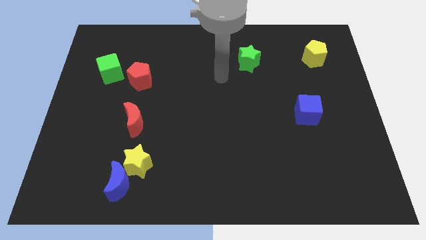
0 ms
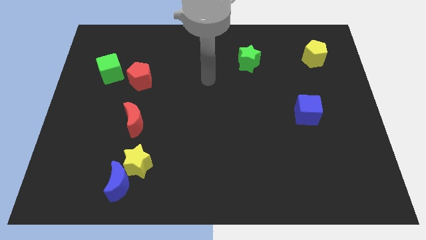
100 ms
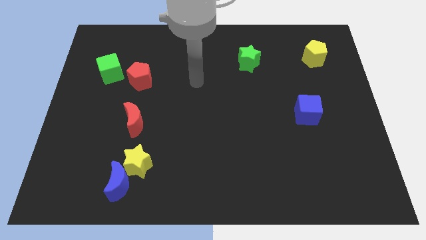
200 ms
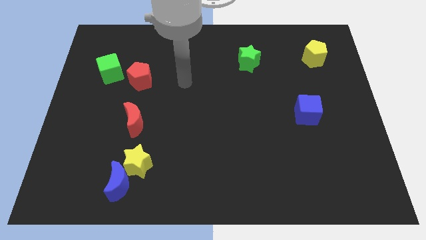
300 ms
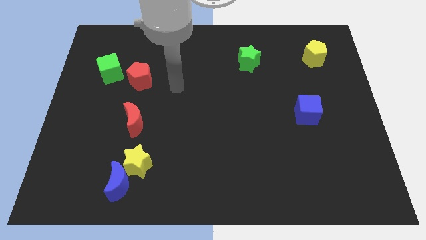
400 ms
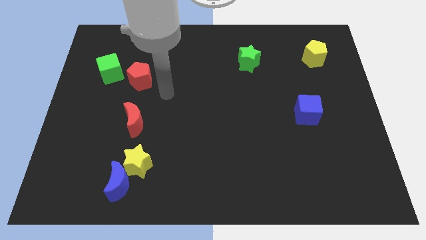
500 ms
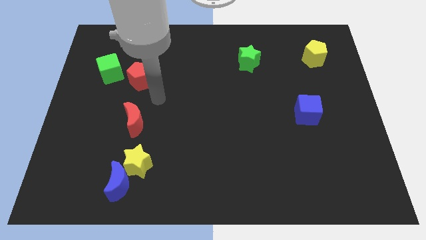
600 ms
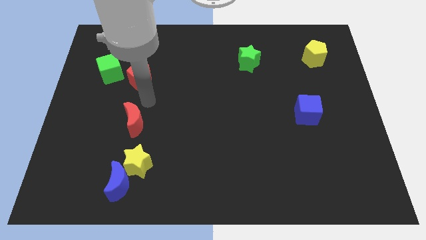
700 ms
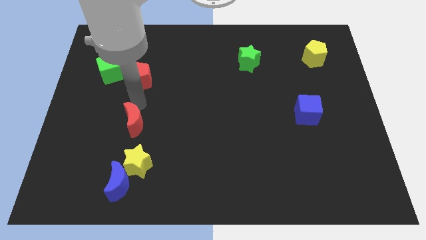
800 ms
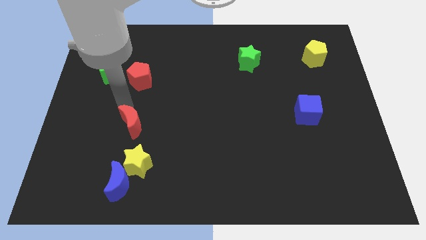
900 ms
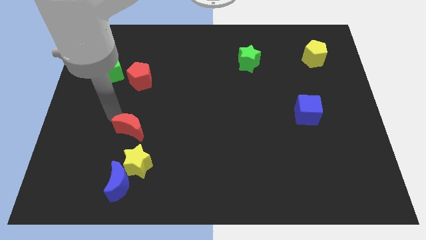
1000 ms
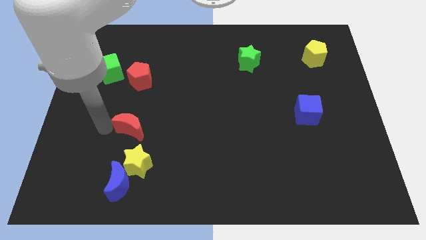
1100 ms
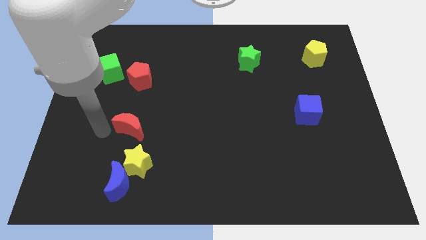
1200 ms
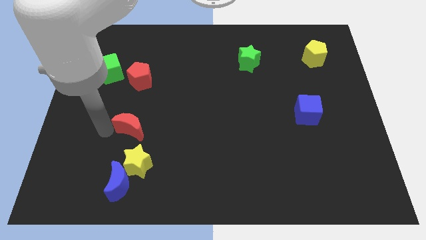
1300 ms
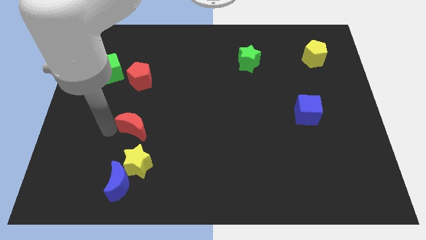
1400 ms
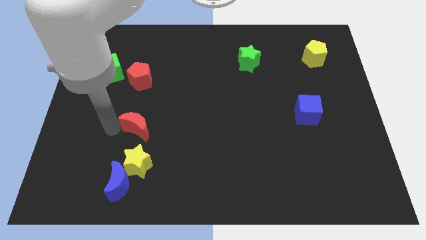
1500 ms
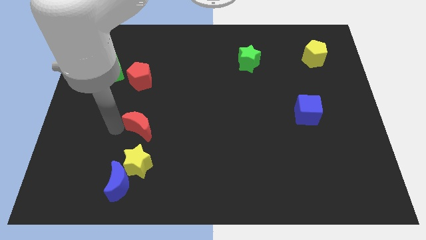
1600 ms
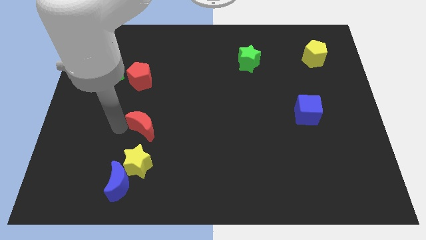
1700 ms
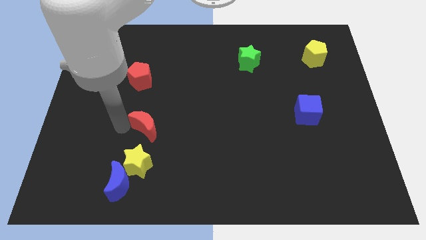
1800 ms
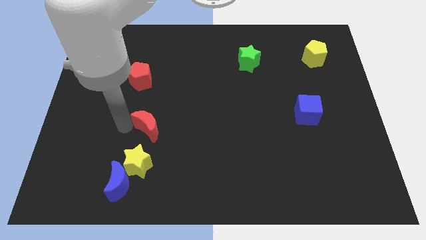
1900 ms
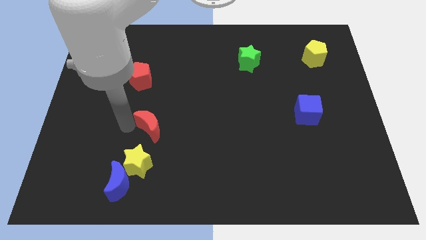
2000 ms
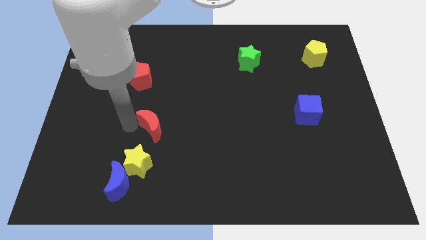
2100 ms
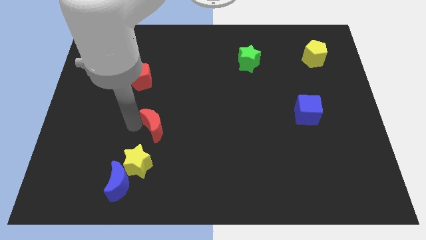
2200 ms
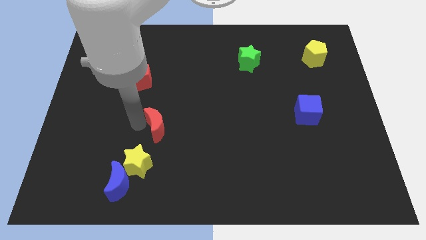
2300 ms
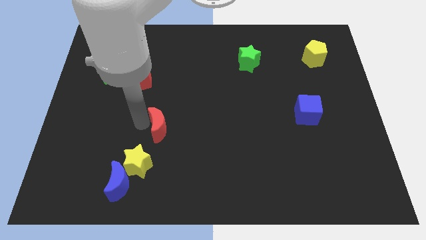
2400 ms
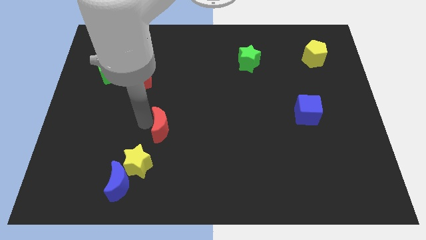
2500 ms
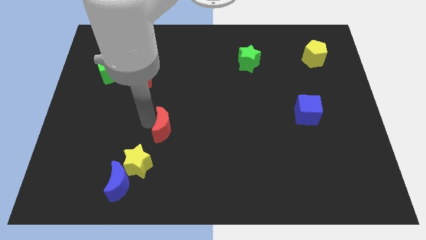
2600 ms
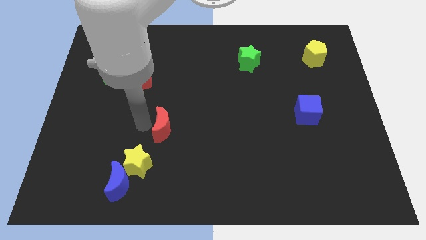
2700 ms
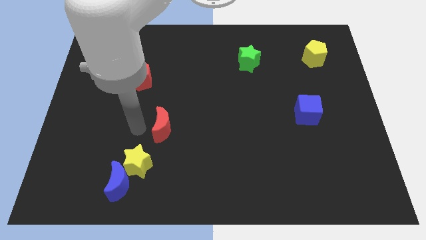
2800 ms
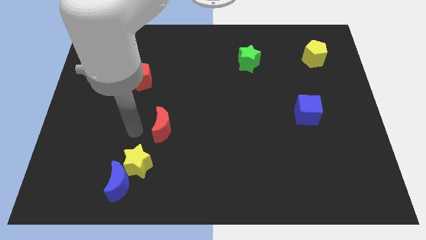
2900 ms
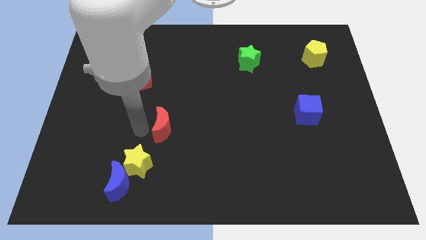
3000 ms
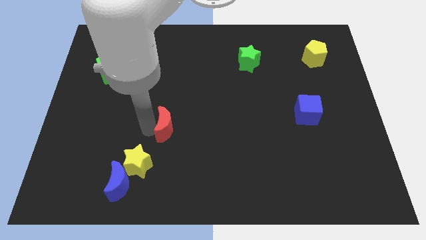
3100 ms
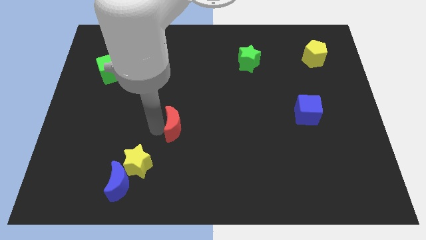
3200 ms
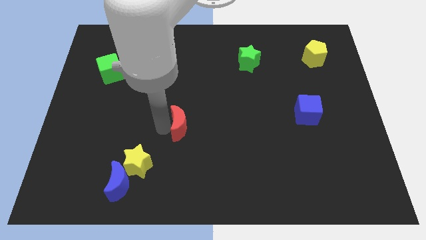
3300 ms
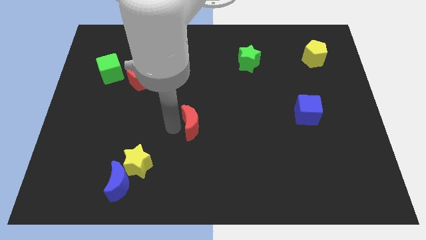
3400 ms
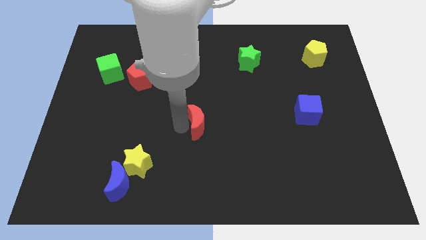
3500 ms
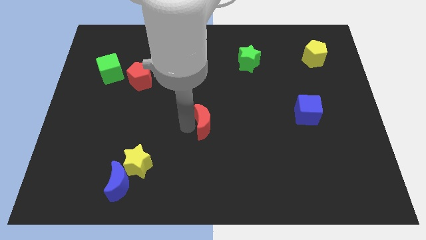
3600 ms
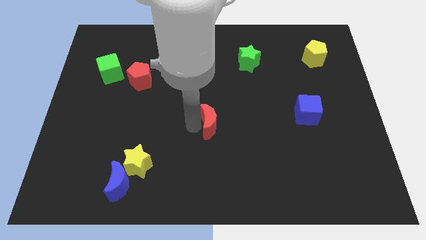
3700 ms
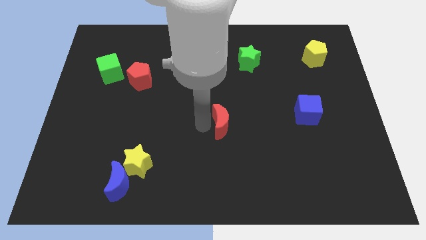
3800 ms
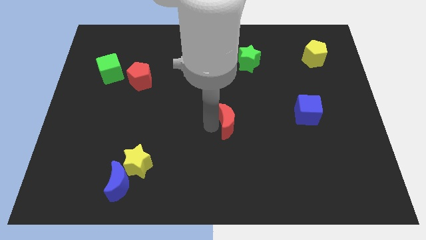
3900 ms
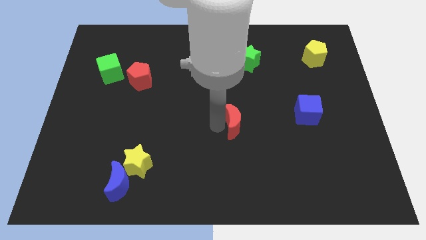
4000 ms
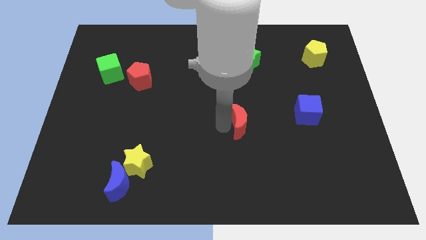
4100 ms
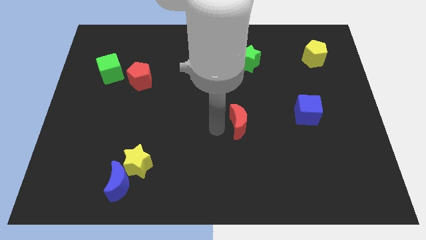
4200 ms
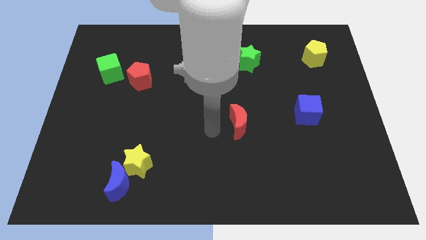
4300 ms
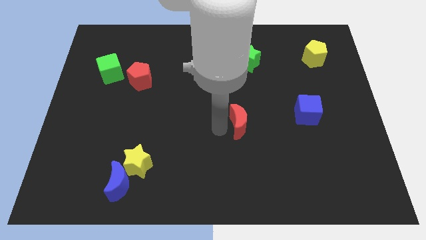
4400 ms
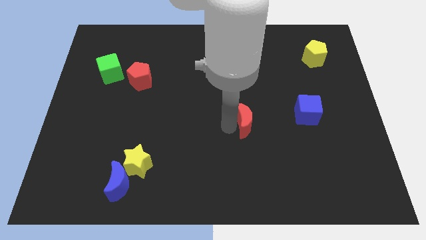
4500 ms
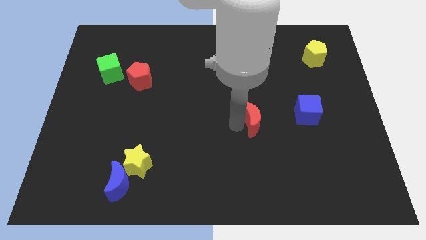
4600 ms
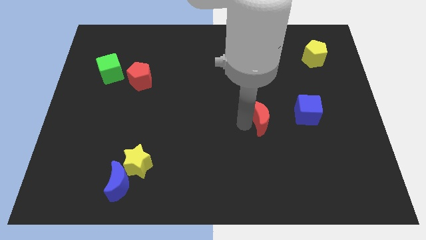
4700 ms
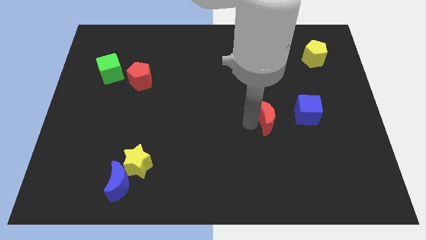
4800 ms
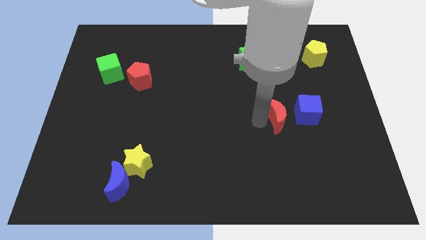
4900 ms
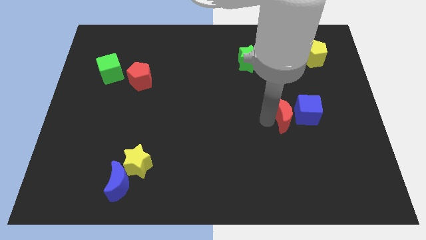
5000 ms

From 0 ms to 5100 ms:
put the red moon towards the blue cube

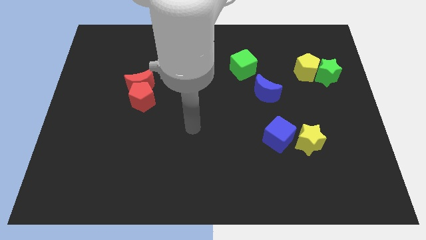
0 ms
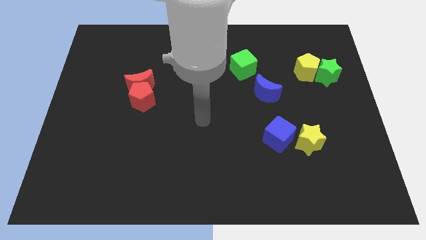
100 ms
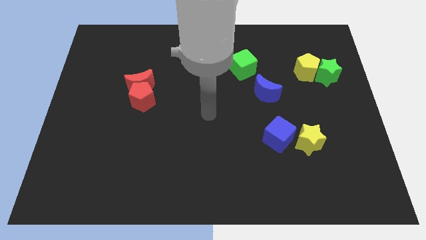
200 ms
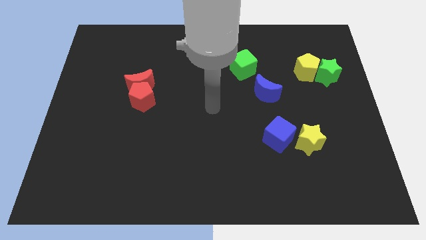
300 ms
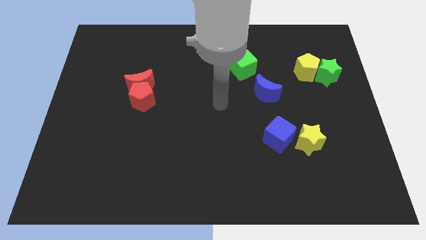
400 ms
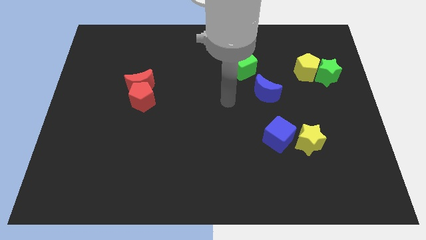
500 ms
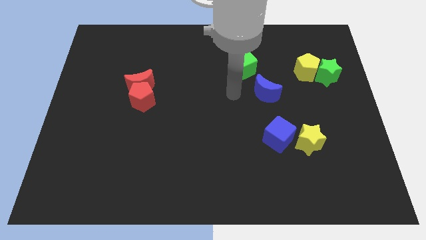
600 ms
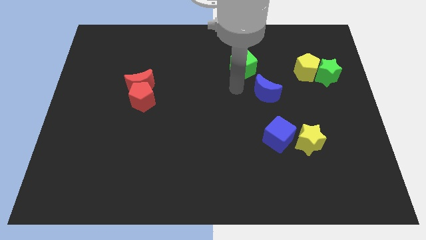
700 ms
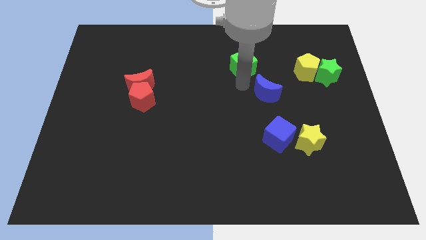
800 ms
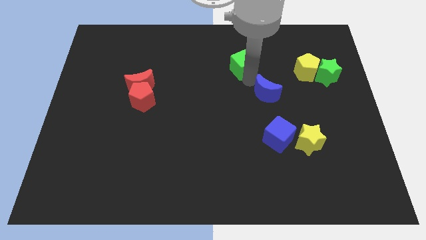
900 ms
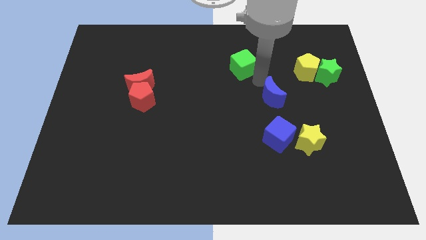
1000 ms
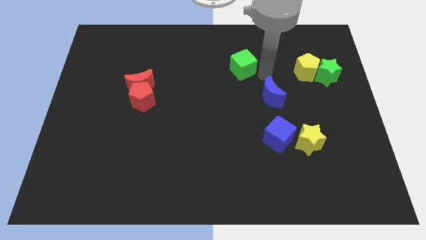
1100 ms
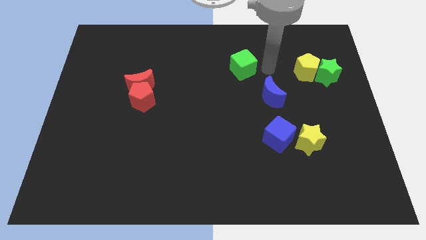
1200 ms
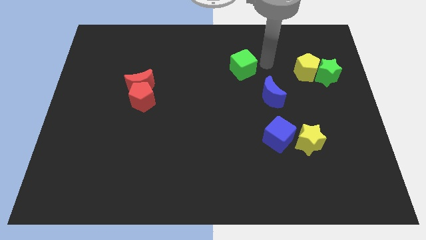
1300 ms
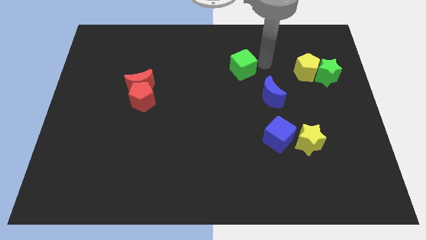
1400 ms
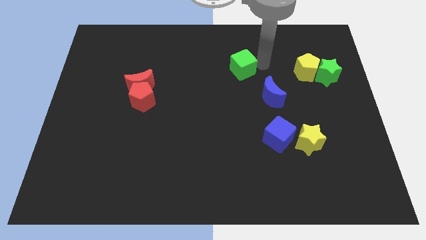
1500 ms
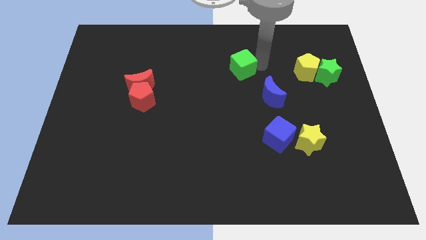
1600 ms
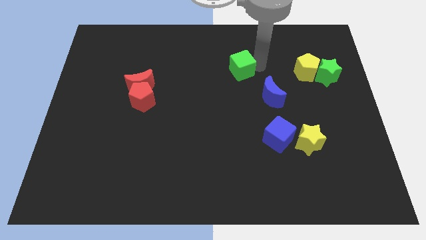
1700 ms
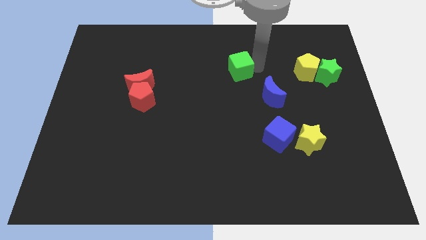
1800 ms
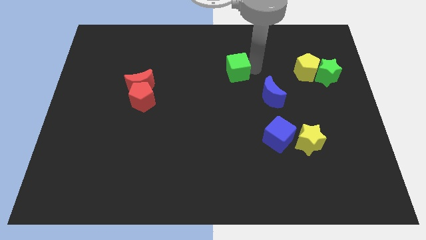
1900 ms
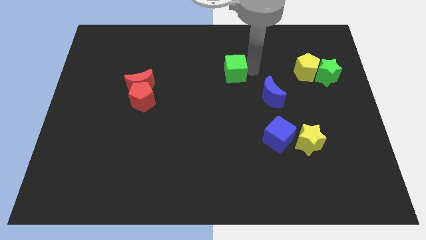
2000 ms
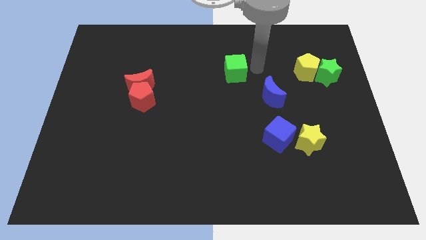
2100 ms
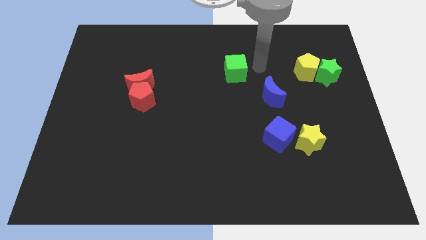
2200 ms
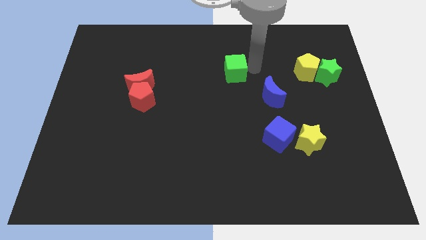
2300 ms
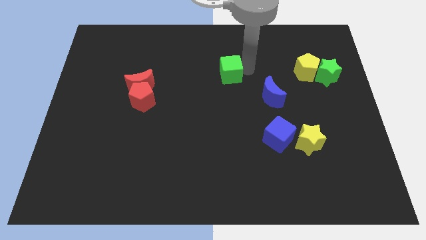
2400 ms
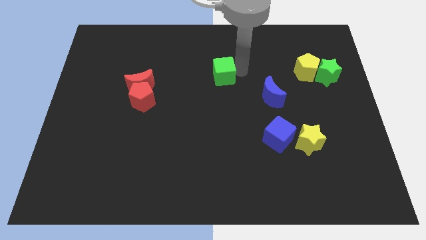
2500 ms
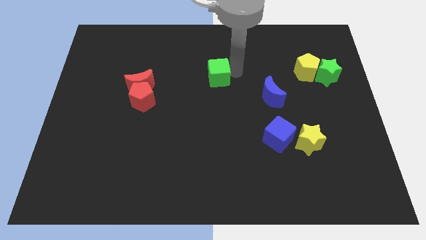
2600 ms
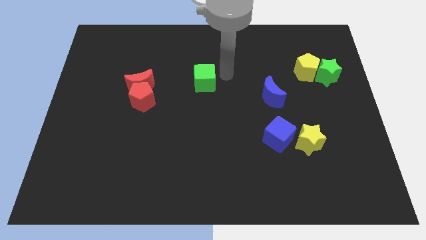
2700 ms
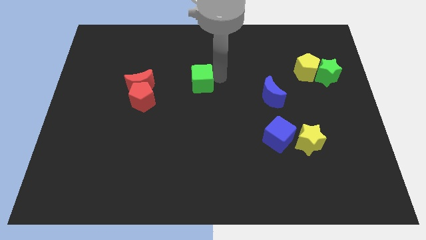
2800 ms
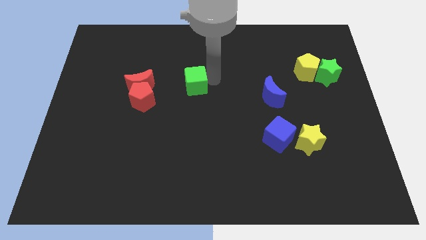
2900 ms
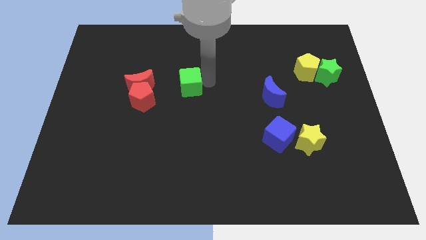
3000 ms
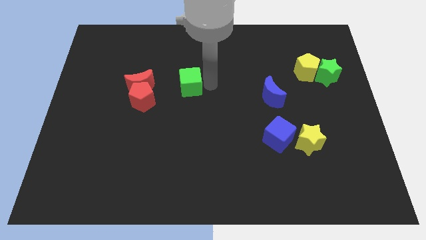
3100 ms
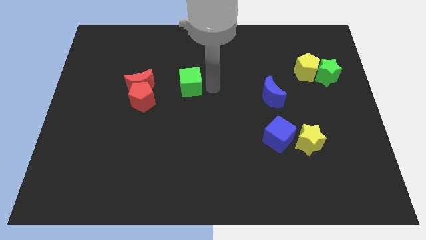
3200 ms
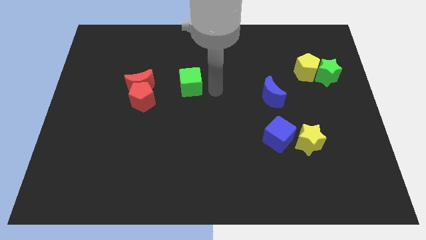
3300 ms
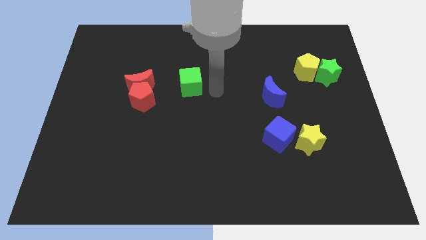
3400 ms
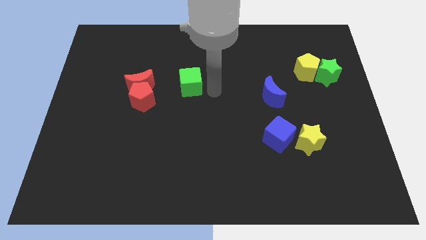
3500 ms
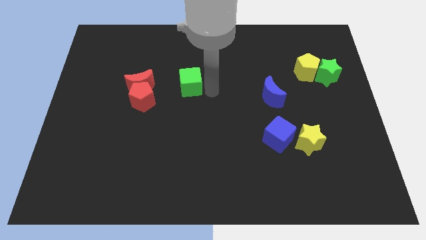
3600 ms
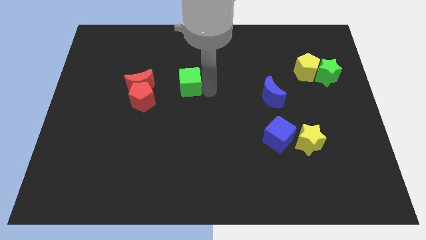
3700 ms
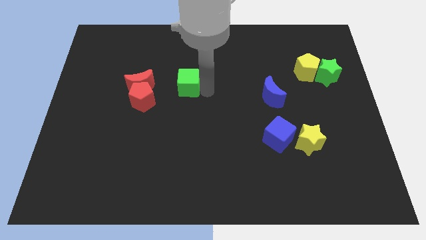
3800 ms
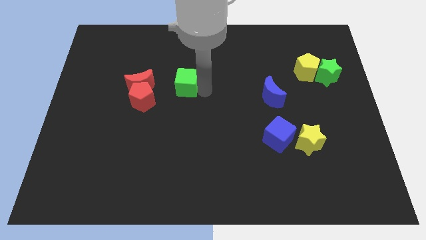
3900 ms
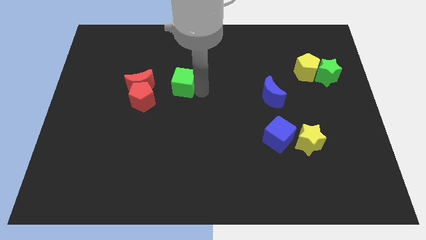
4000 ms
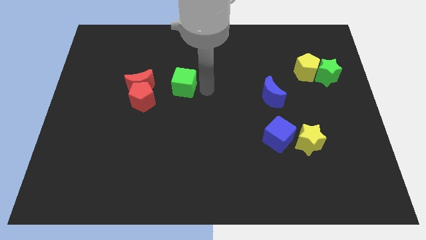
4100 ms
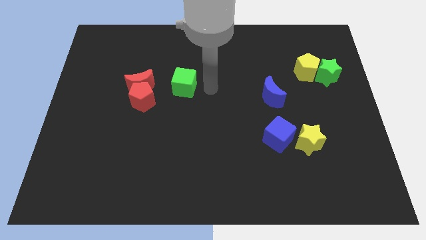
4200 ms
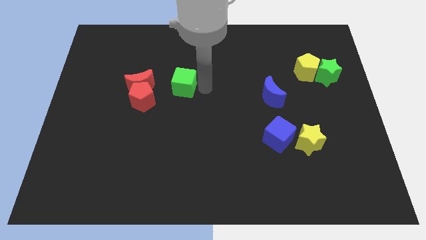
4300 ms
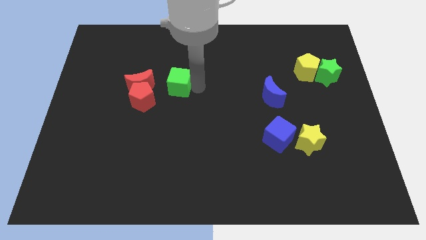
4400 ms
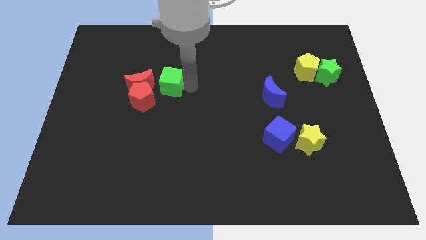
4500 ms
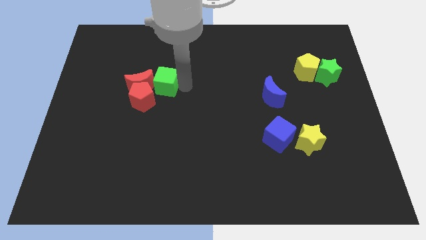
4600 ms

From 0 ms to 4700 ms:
push the green cube to the red moon
